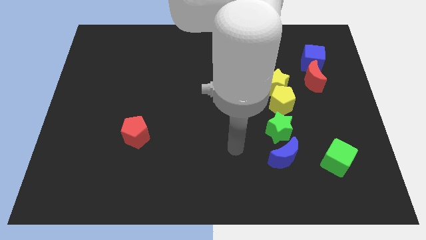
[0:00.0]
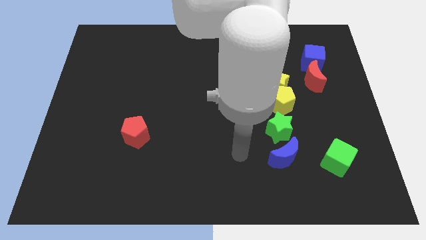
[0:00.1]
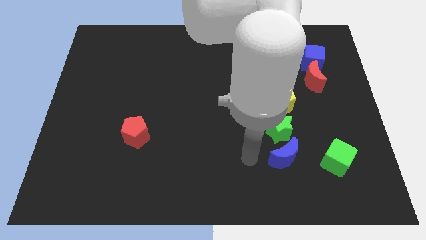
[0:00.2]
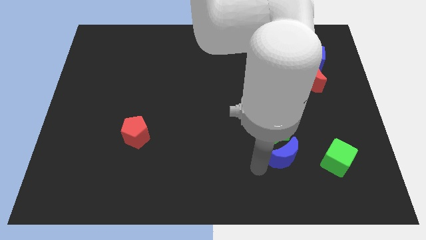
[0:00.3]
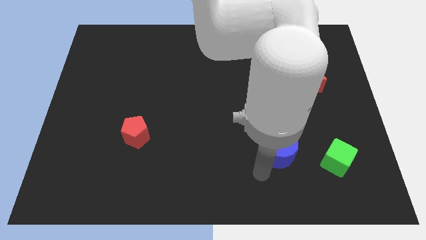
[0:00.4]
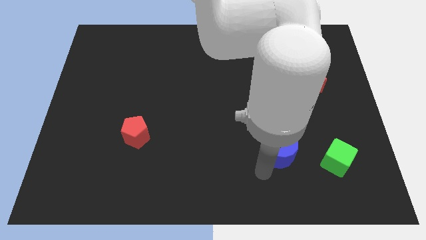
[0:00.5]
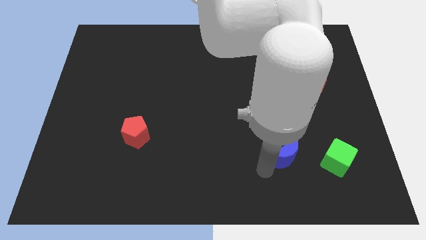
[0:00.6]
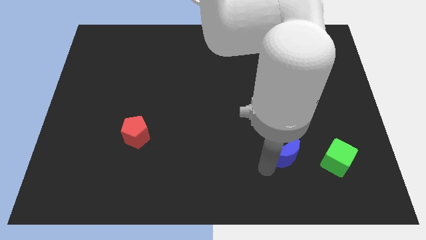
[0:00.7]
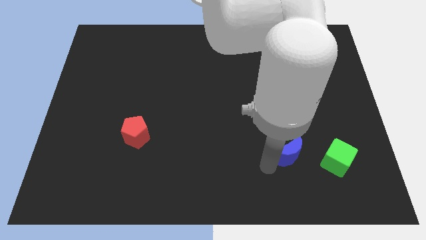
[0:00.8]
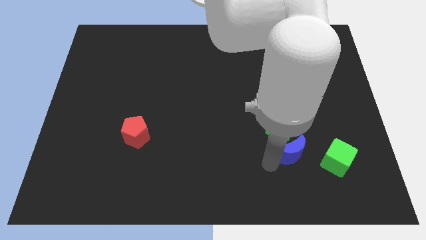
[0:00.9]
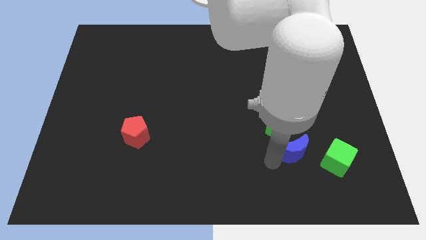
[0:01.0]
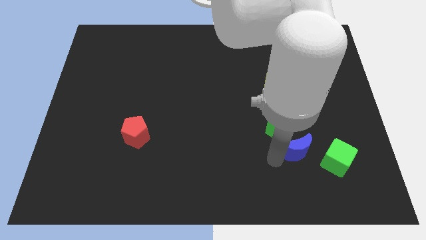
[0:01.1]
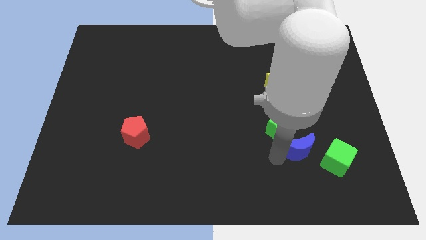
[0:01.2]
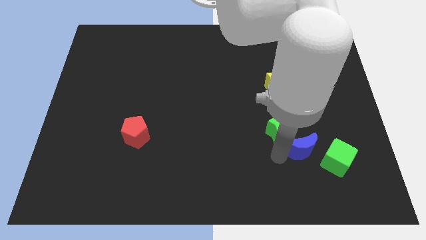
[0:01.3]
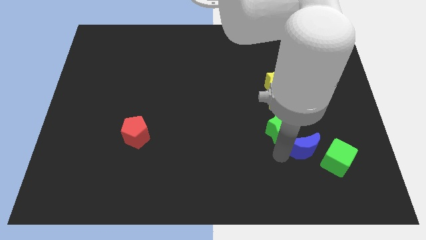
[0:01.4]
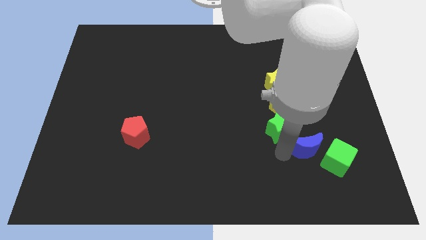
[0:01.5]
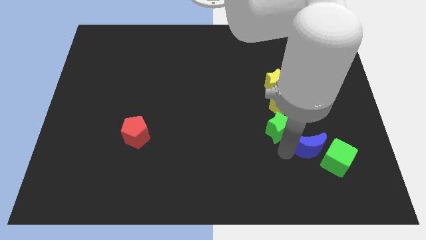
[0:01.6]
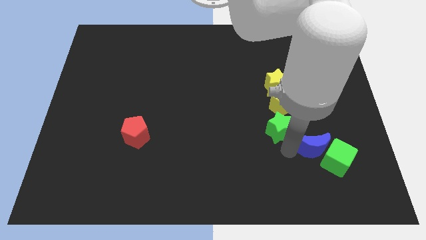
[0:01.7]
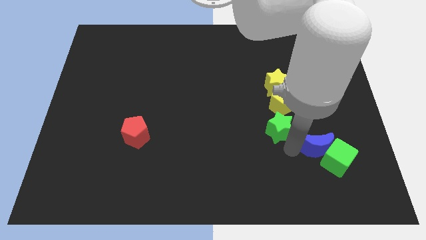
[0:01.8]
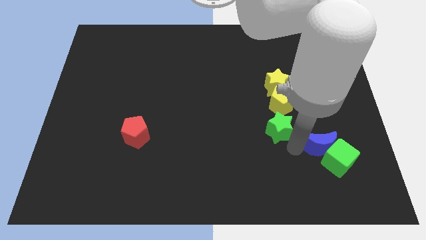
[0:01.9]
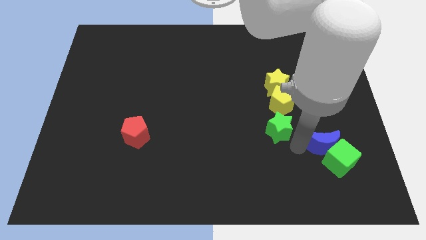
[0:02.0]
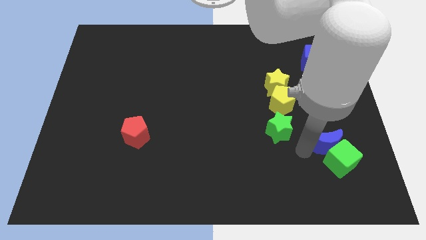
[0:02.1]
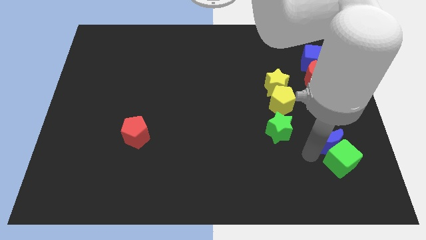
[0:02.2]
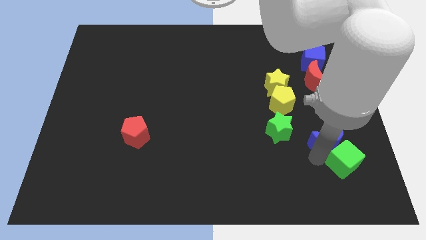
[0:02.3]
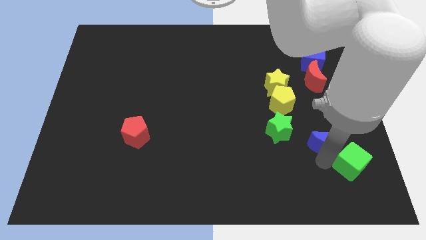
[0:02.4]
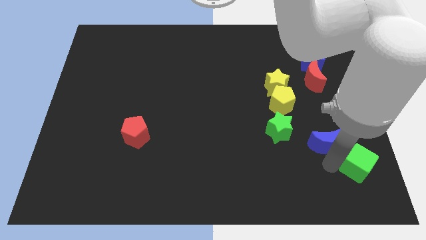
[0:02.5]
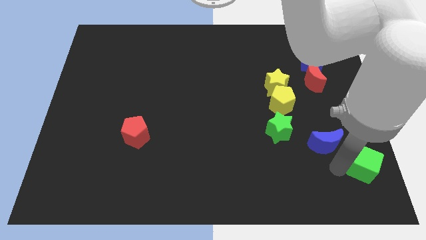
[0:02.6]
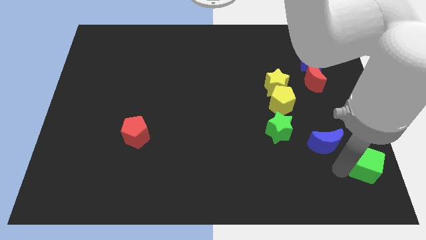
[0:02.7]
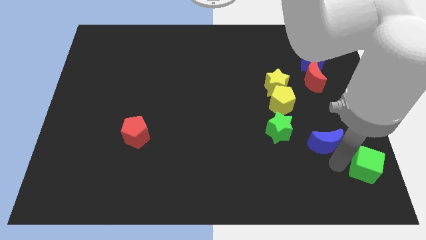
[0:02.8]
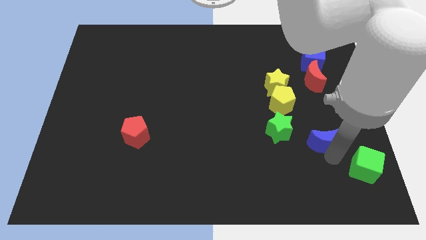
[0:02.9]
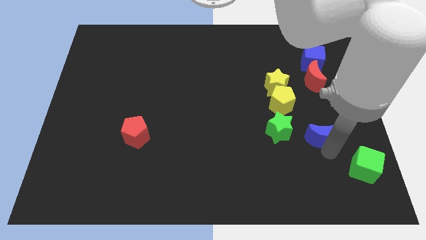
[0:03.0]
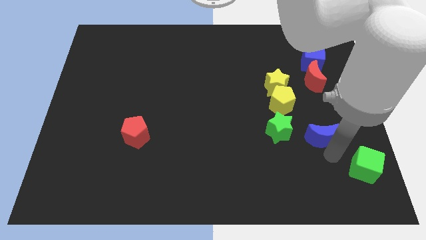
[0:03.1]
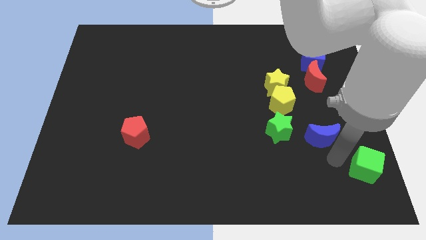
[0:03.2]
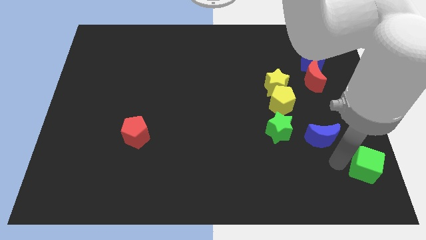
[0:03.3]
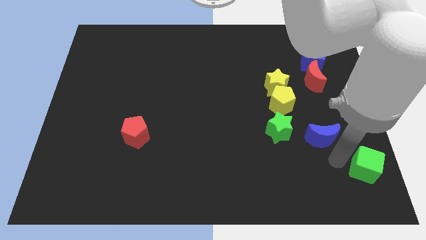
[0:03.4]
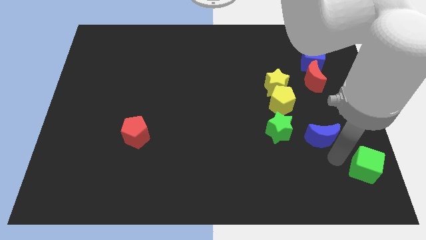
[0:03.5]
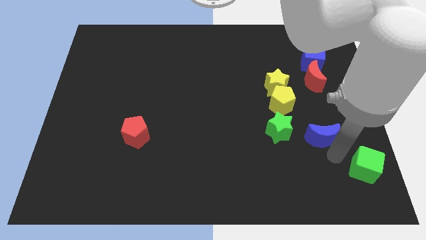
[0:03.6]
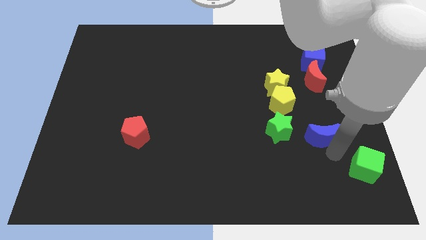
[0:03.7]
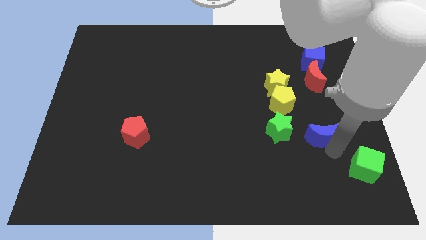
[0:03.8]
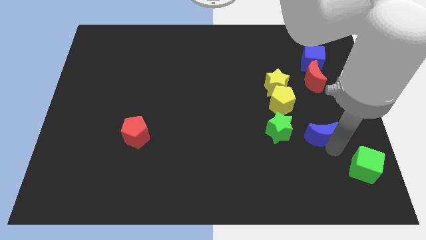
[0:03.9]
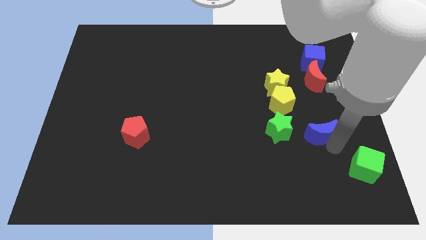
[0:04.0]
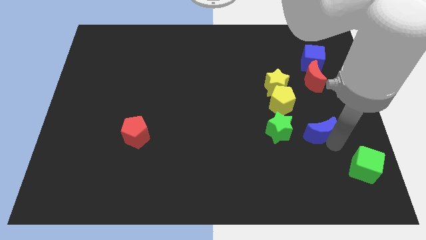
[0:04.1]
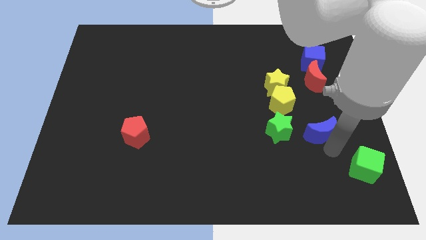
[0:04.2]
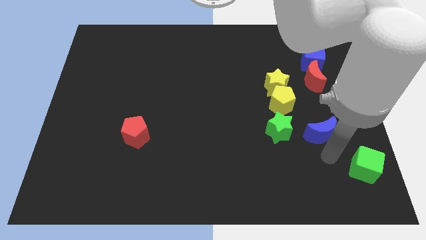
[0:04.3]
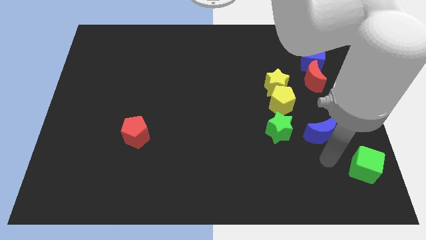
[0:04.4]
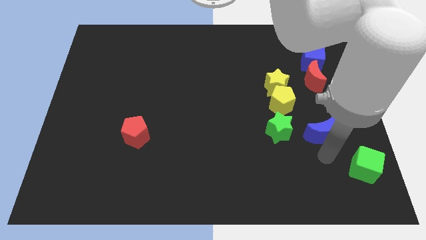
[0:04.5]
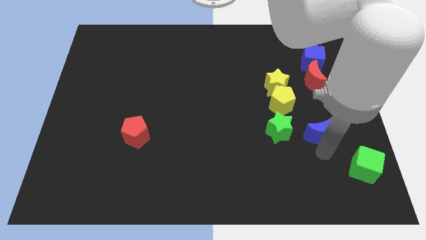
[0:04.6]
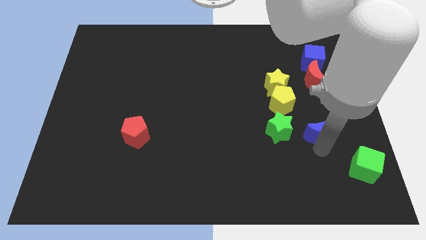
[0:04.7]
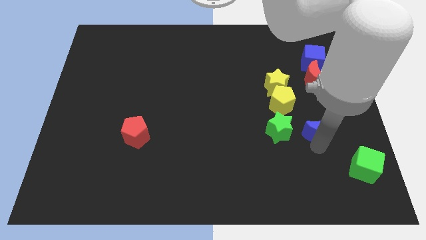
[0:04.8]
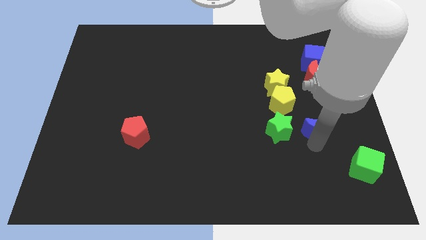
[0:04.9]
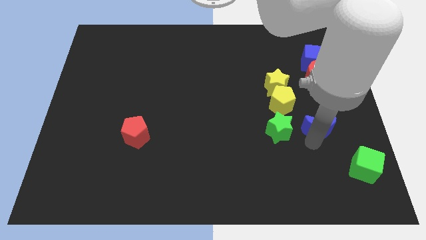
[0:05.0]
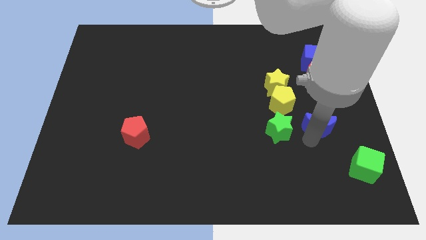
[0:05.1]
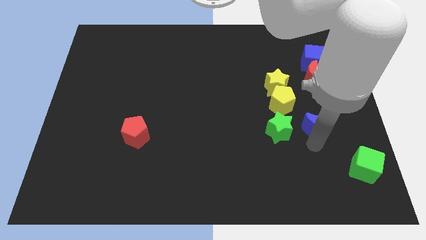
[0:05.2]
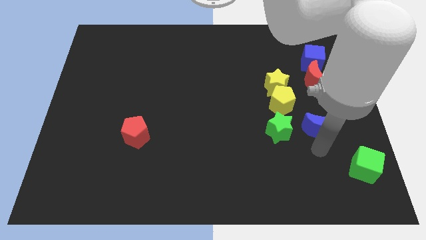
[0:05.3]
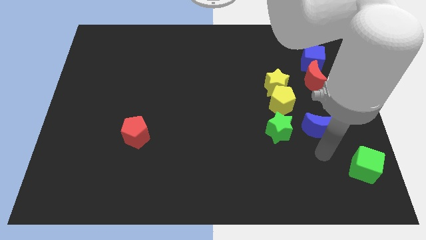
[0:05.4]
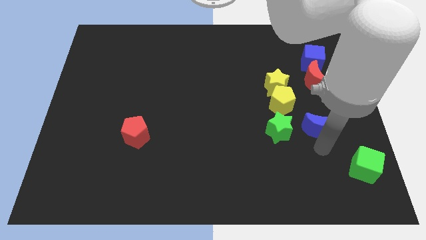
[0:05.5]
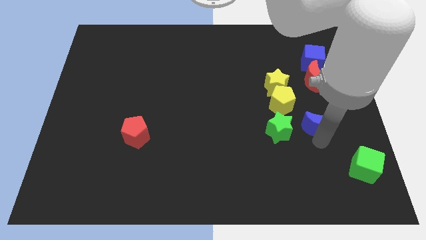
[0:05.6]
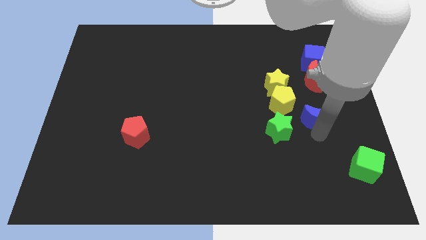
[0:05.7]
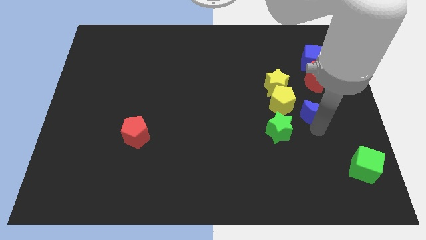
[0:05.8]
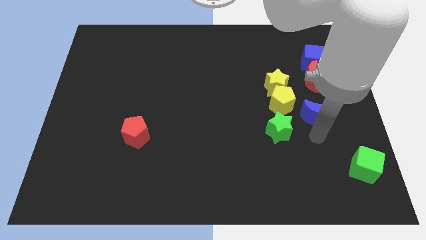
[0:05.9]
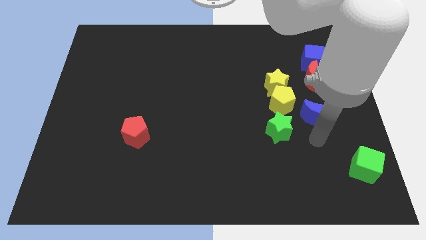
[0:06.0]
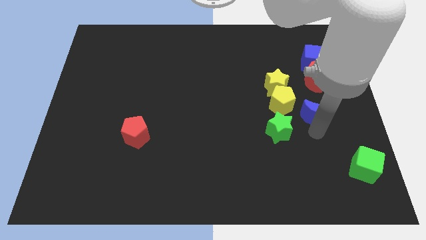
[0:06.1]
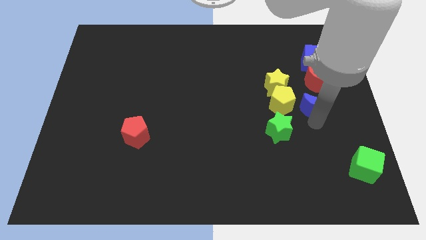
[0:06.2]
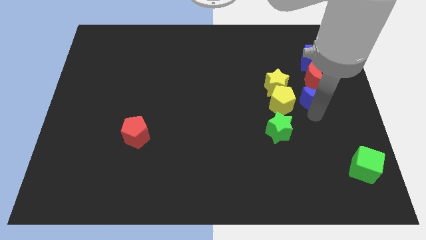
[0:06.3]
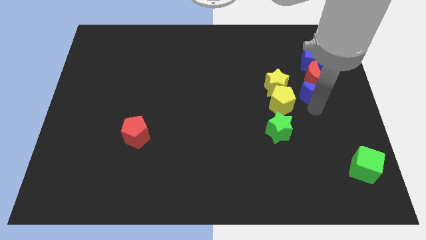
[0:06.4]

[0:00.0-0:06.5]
put the blue moon towards the red moon

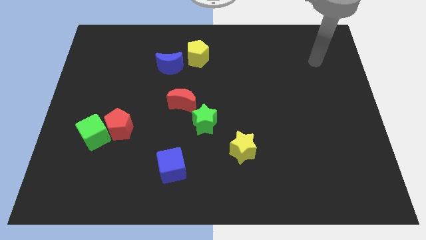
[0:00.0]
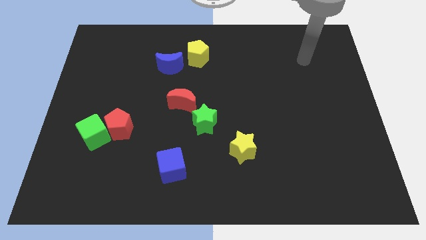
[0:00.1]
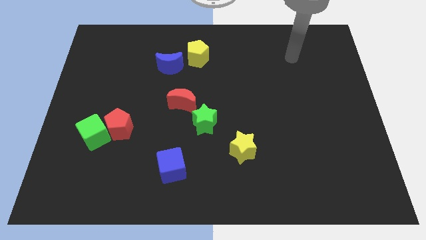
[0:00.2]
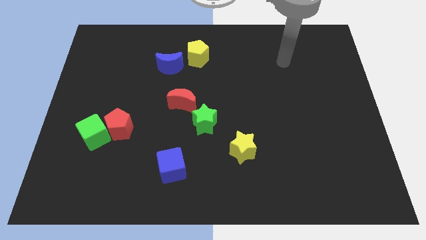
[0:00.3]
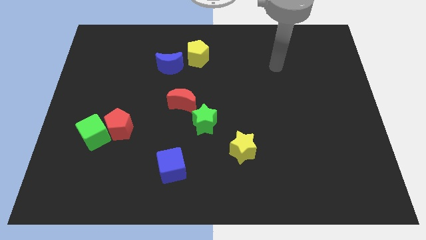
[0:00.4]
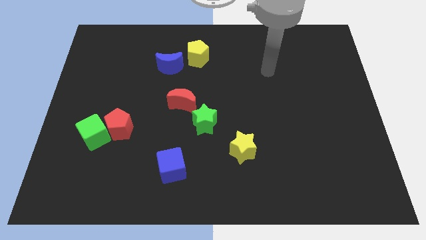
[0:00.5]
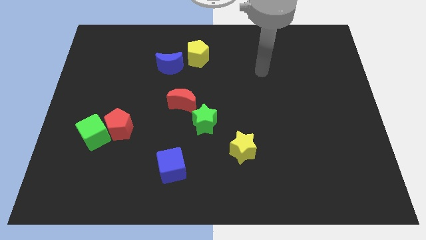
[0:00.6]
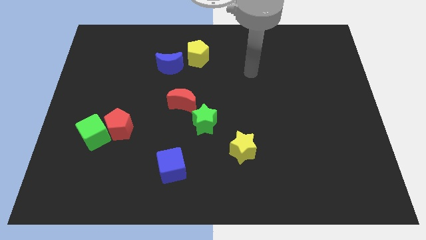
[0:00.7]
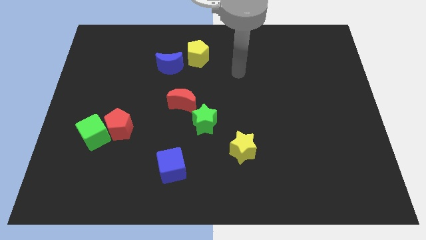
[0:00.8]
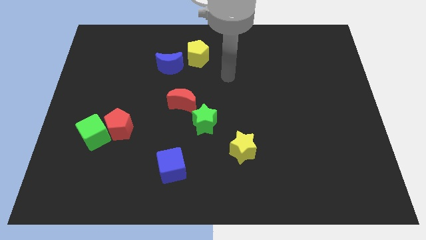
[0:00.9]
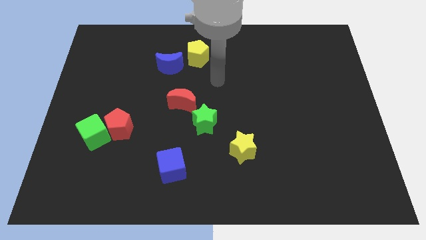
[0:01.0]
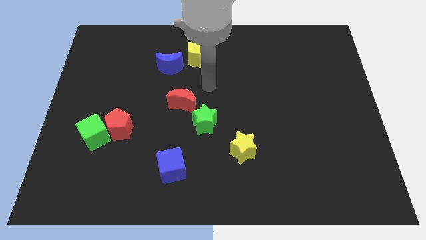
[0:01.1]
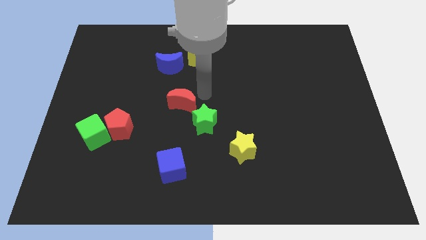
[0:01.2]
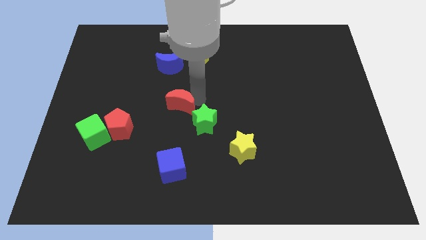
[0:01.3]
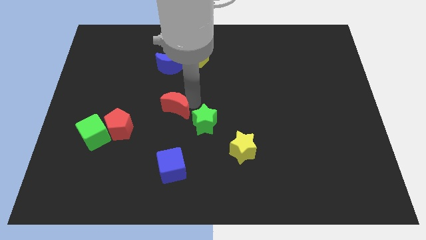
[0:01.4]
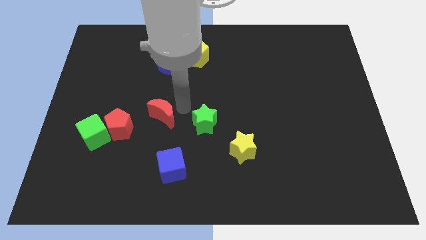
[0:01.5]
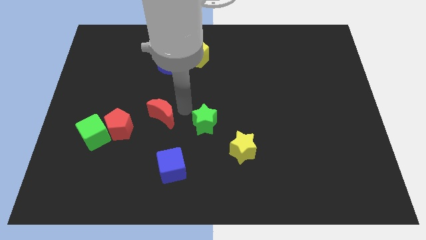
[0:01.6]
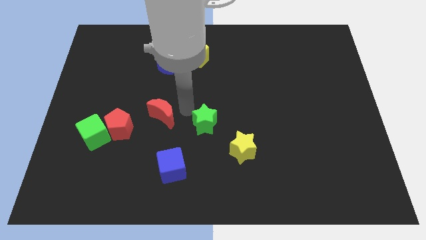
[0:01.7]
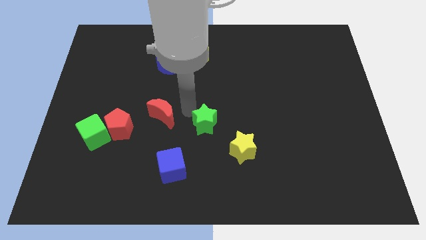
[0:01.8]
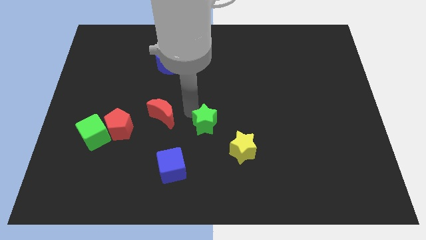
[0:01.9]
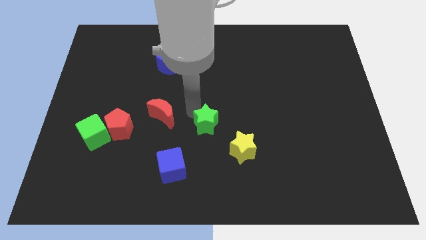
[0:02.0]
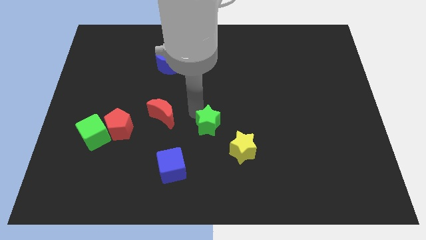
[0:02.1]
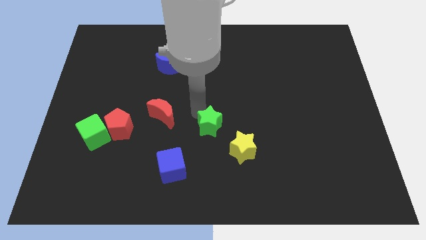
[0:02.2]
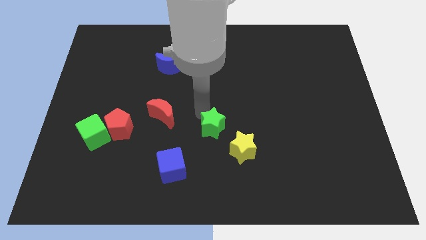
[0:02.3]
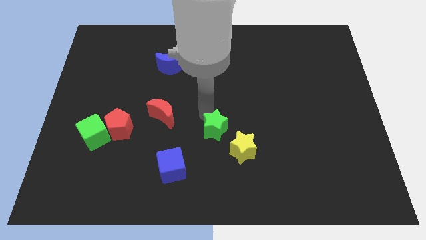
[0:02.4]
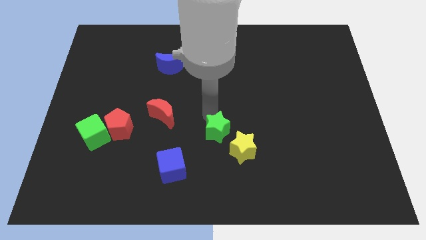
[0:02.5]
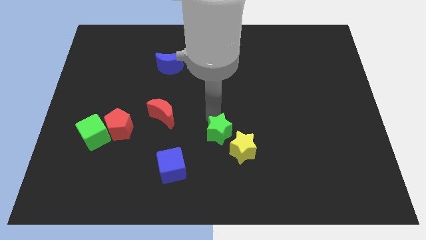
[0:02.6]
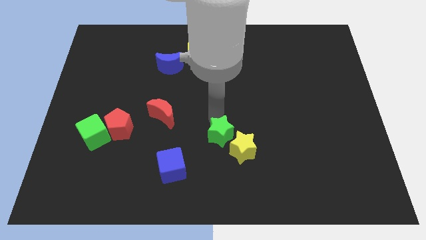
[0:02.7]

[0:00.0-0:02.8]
push the green star towards the yellow star
